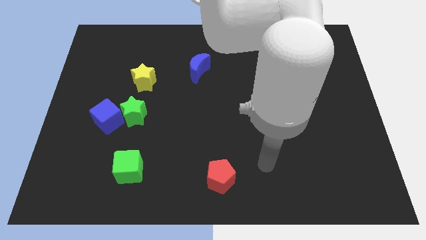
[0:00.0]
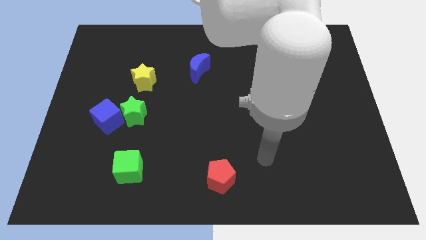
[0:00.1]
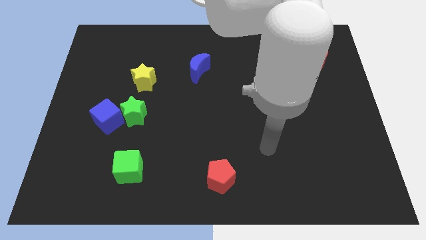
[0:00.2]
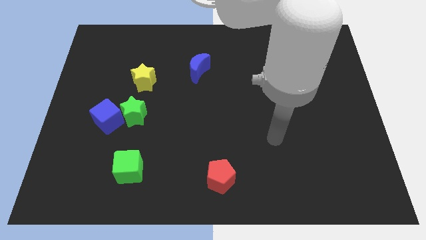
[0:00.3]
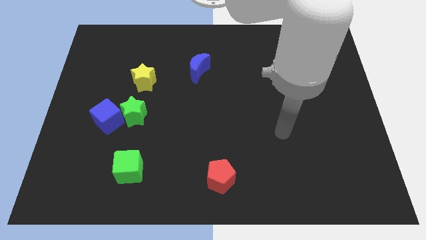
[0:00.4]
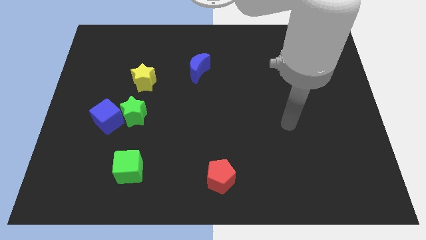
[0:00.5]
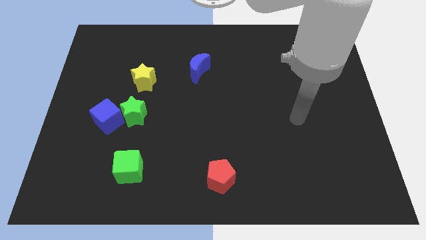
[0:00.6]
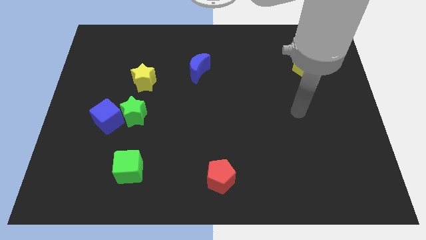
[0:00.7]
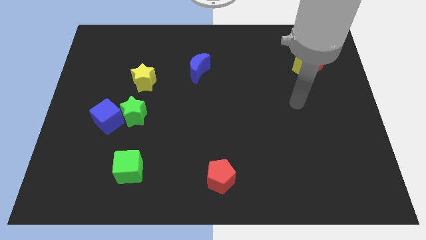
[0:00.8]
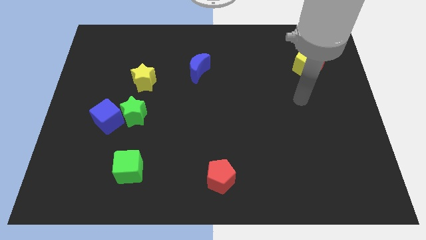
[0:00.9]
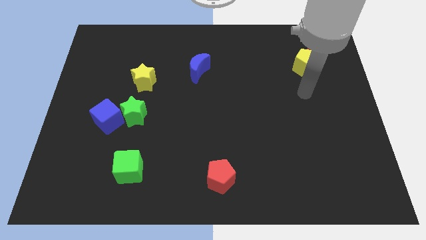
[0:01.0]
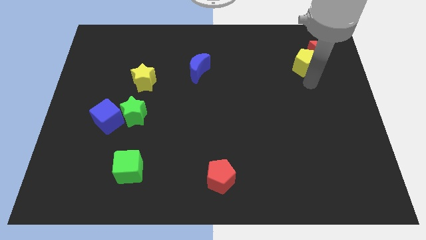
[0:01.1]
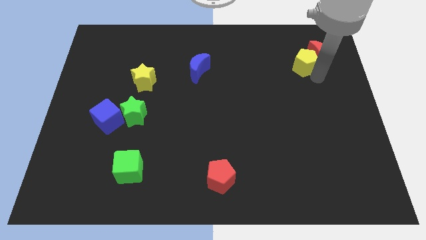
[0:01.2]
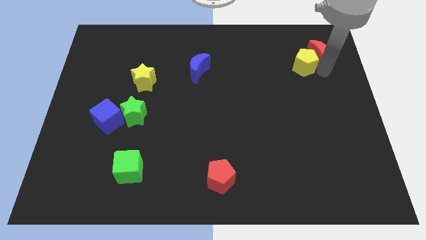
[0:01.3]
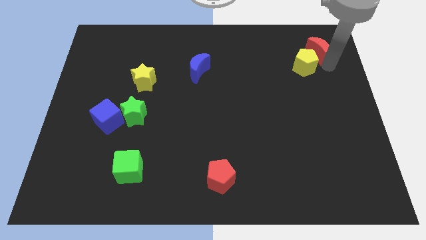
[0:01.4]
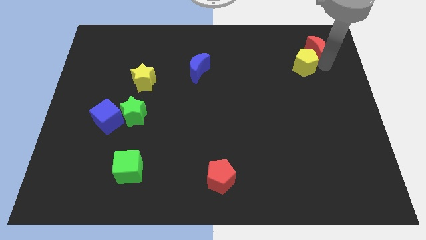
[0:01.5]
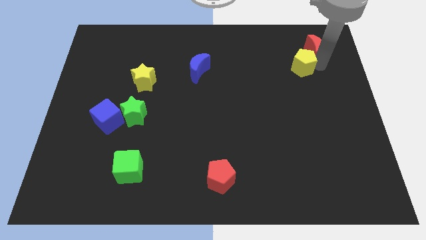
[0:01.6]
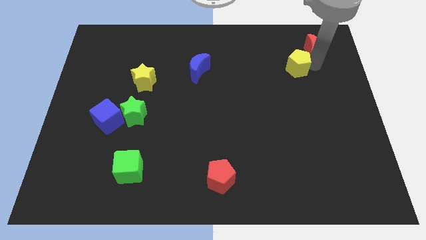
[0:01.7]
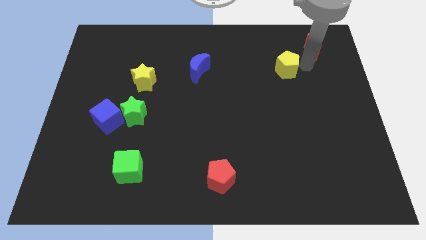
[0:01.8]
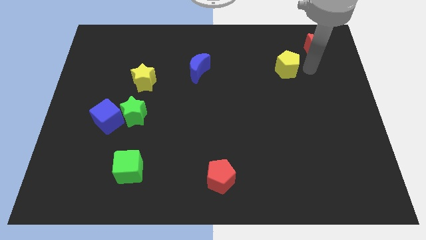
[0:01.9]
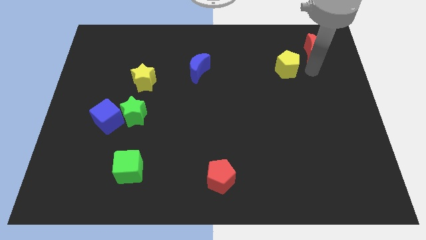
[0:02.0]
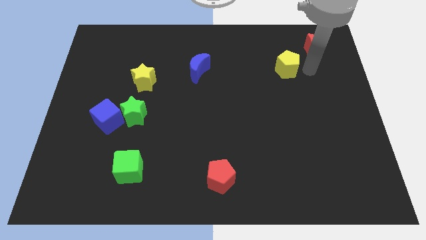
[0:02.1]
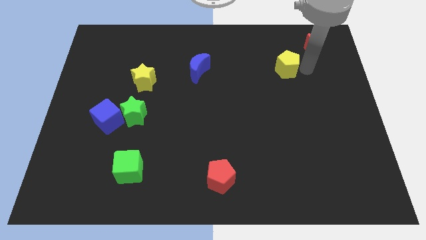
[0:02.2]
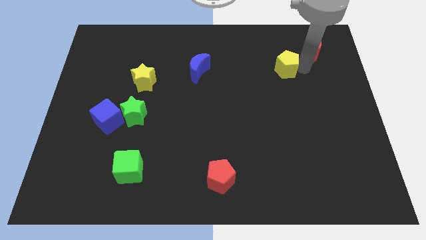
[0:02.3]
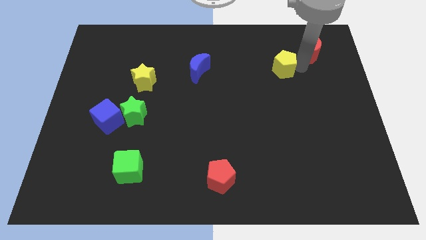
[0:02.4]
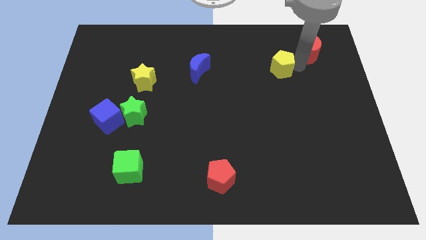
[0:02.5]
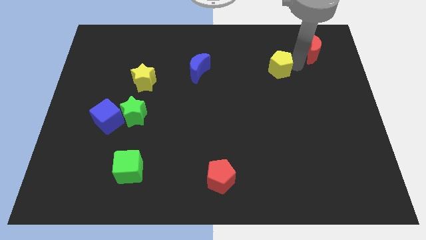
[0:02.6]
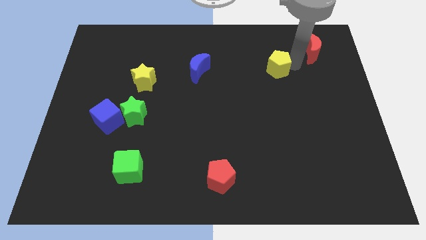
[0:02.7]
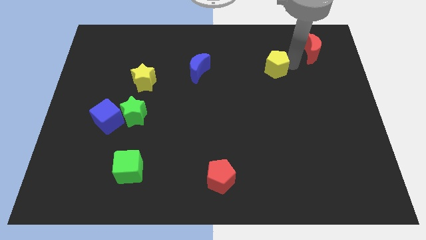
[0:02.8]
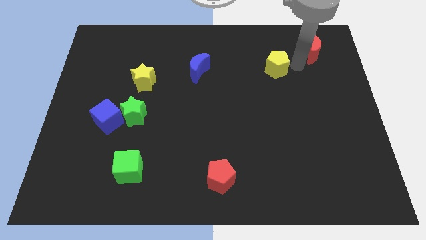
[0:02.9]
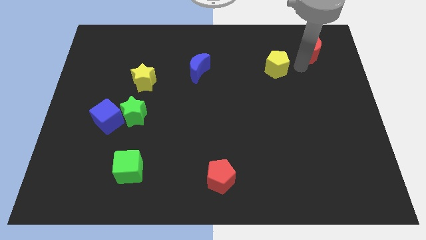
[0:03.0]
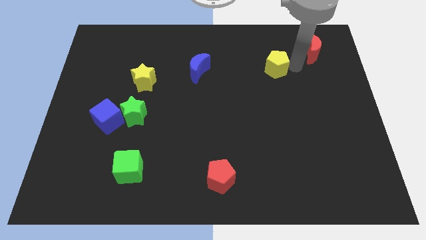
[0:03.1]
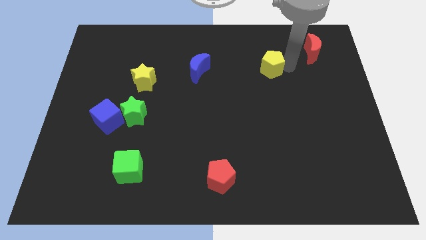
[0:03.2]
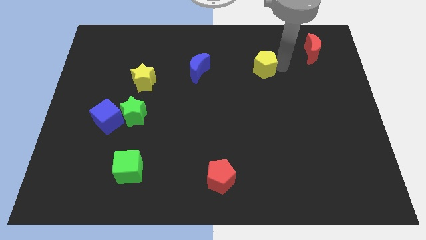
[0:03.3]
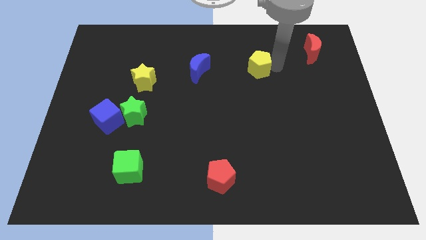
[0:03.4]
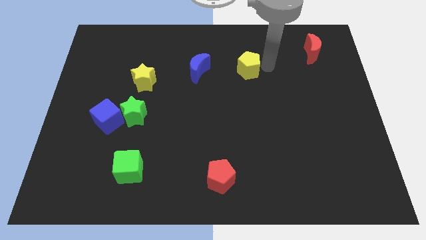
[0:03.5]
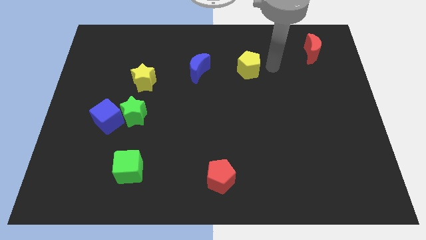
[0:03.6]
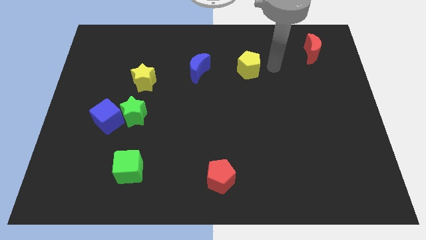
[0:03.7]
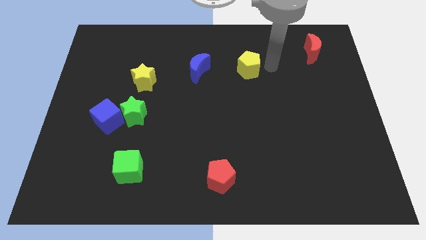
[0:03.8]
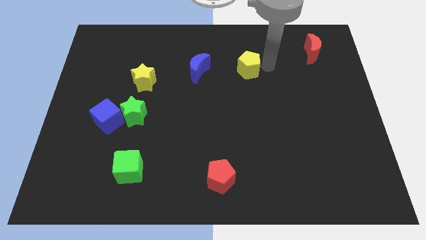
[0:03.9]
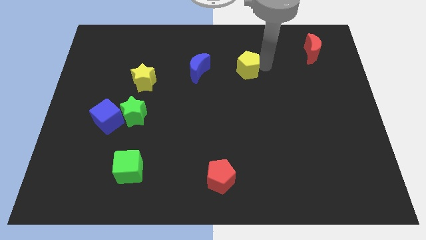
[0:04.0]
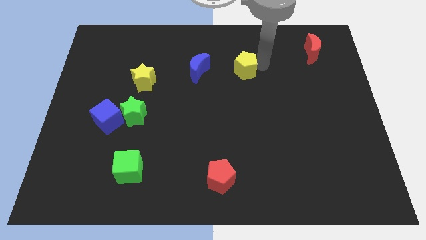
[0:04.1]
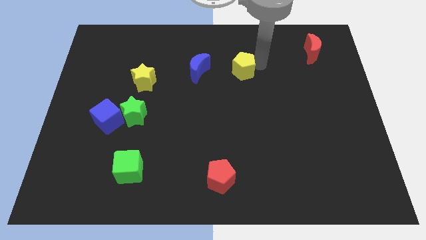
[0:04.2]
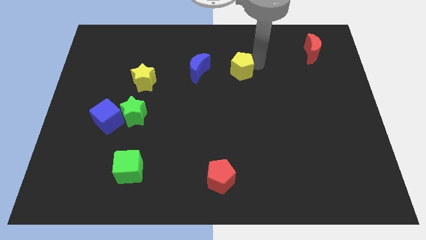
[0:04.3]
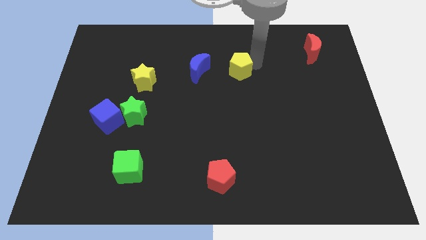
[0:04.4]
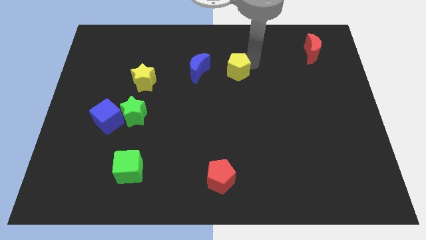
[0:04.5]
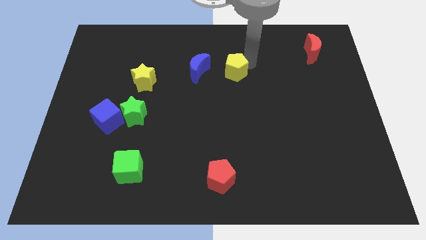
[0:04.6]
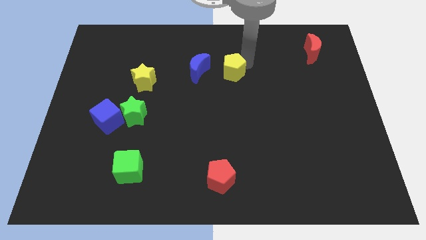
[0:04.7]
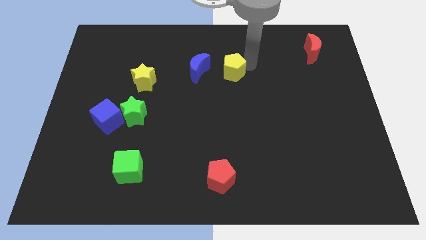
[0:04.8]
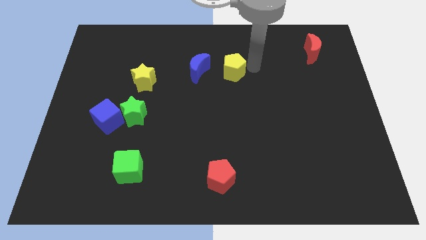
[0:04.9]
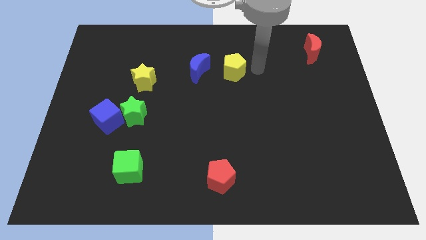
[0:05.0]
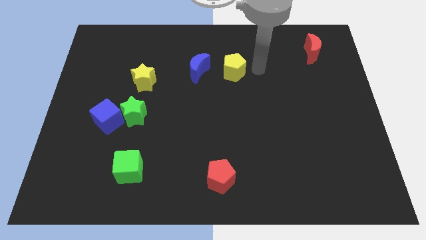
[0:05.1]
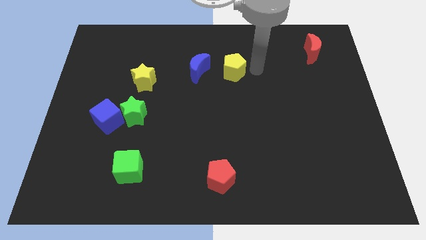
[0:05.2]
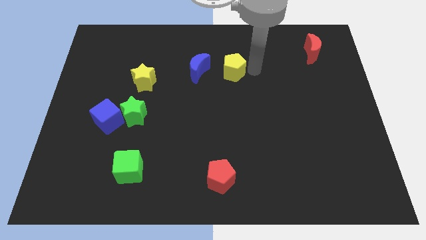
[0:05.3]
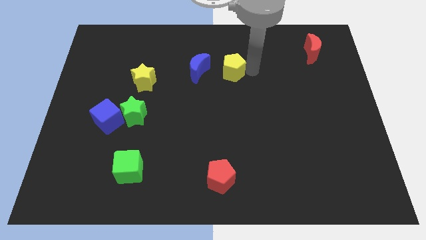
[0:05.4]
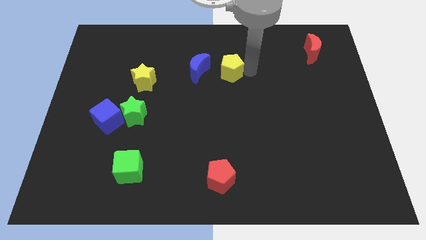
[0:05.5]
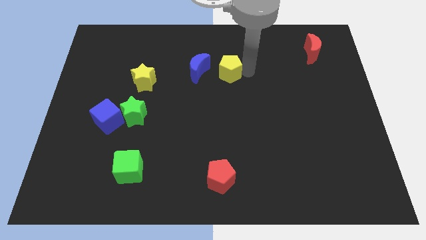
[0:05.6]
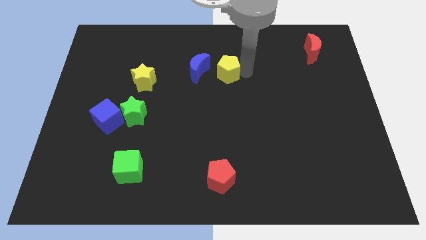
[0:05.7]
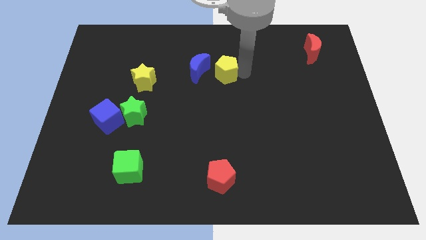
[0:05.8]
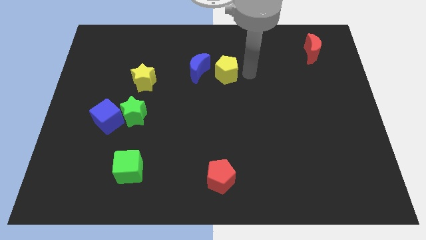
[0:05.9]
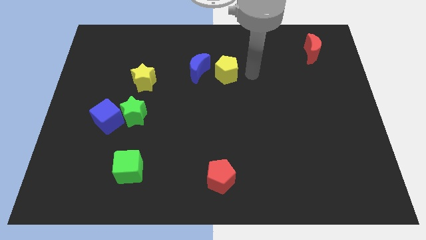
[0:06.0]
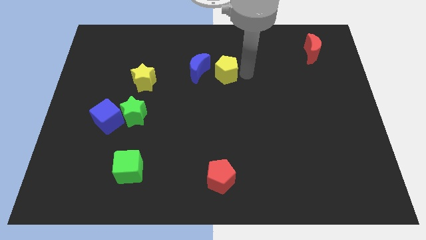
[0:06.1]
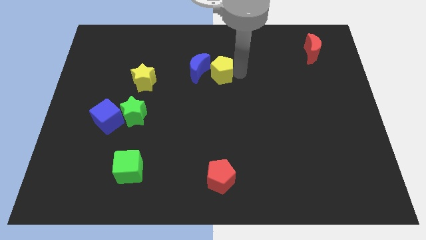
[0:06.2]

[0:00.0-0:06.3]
put the yellow pentagon towards the blue moon

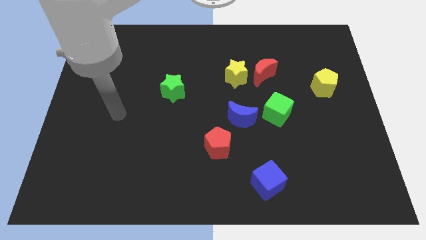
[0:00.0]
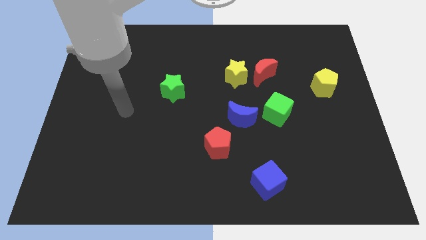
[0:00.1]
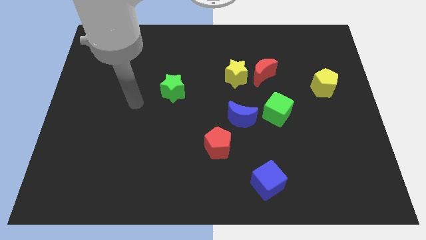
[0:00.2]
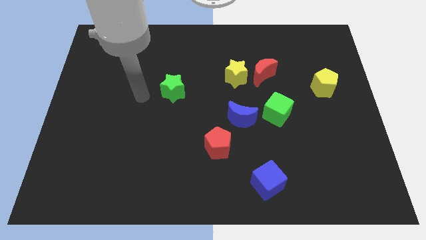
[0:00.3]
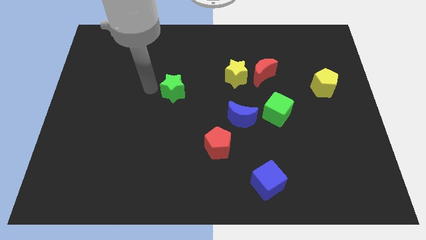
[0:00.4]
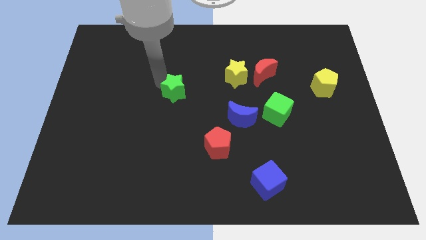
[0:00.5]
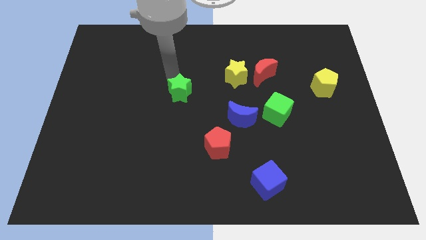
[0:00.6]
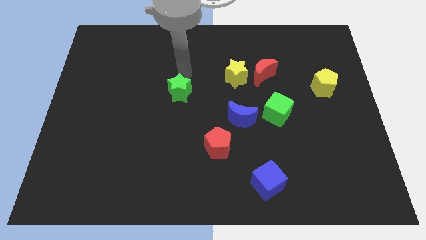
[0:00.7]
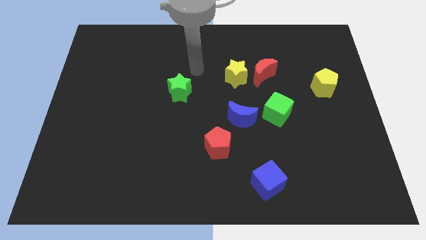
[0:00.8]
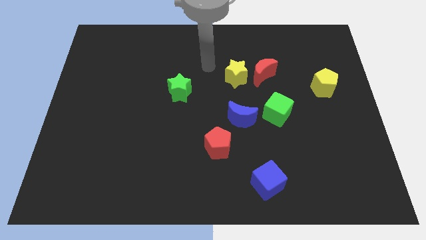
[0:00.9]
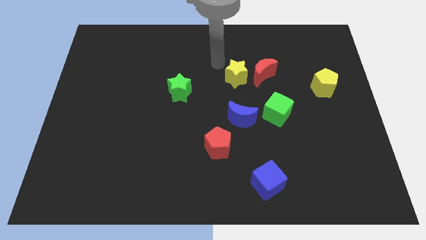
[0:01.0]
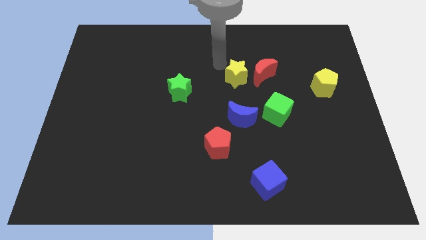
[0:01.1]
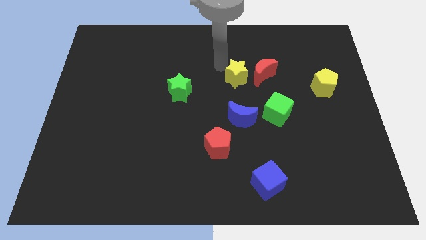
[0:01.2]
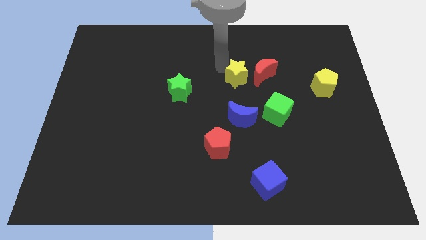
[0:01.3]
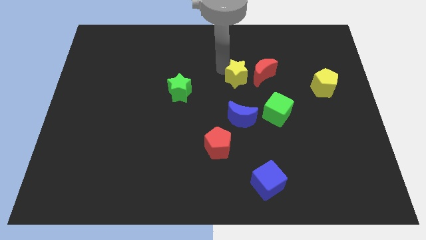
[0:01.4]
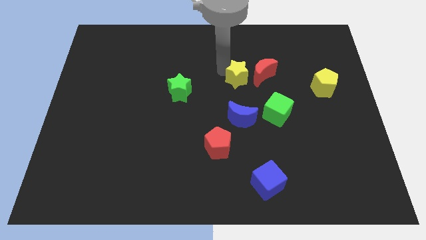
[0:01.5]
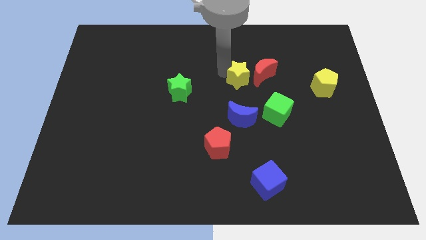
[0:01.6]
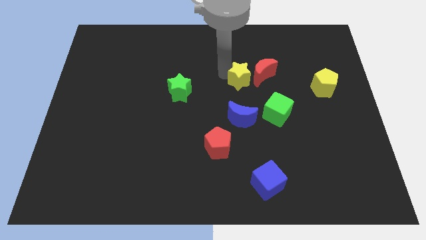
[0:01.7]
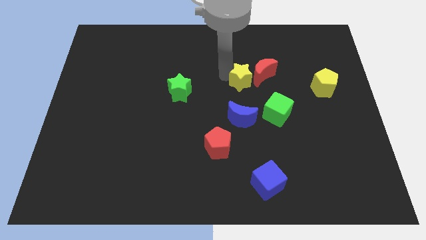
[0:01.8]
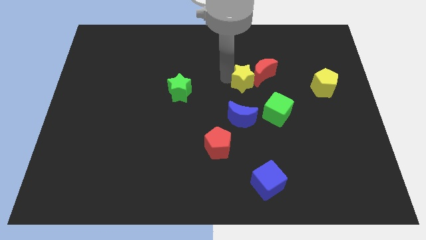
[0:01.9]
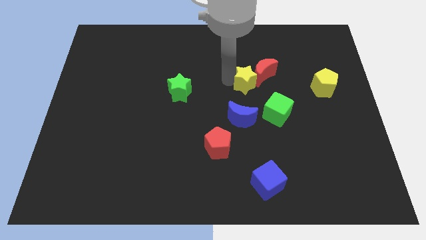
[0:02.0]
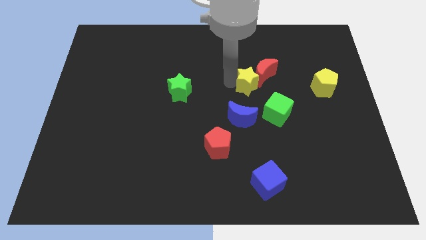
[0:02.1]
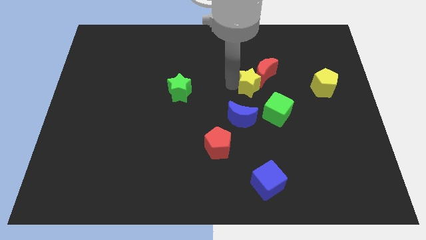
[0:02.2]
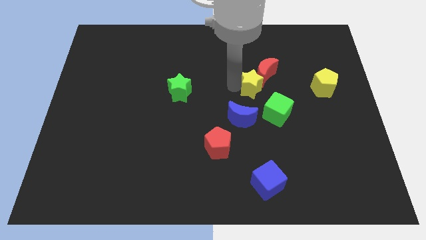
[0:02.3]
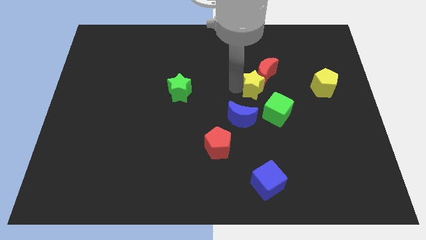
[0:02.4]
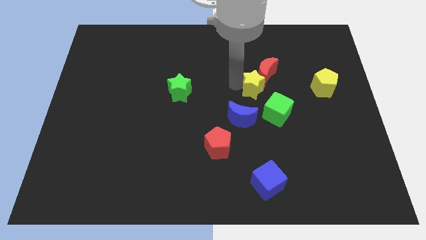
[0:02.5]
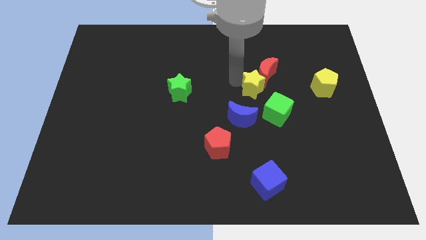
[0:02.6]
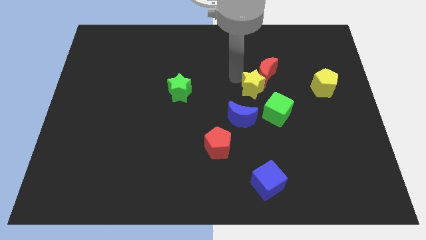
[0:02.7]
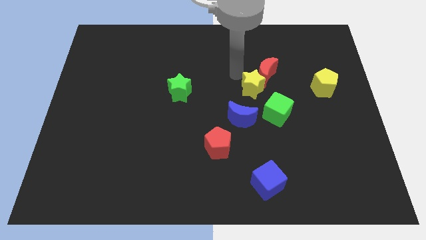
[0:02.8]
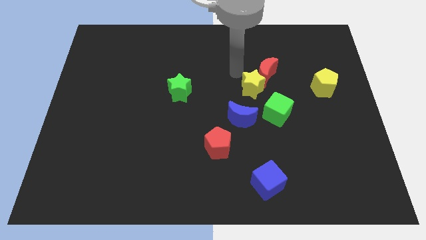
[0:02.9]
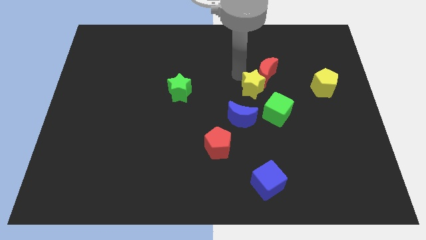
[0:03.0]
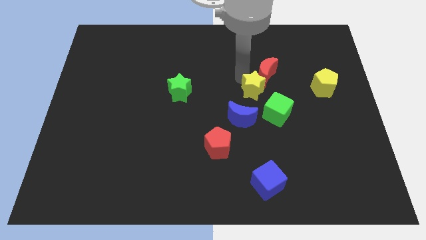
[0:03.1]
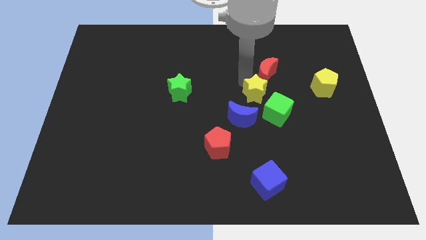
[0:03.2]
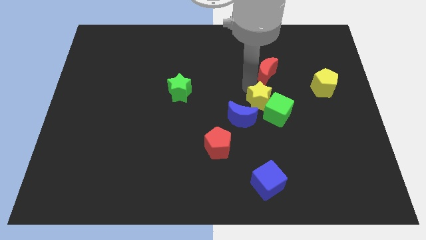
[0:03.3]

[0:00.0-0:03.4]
push the yellow star close to the green cube
